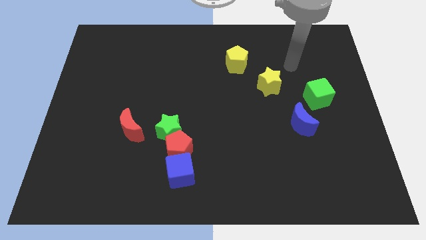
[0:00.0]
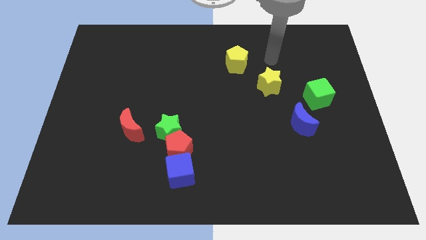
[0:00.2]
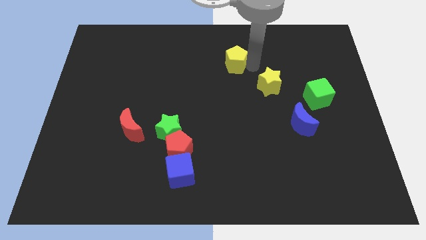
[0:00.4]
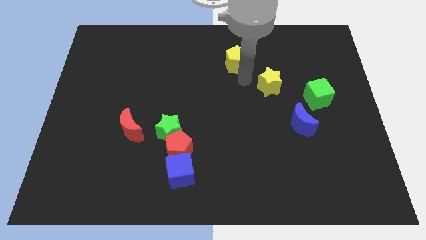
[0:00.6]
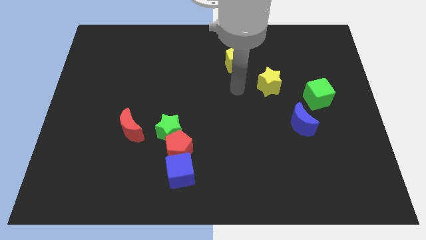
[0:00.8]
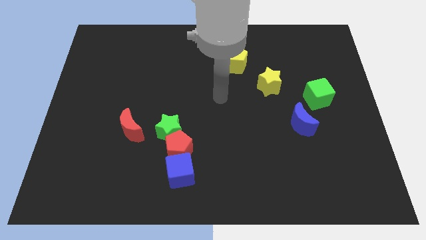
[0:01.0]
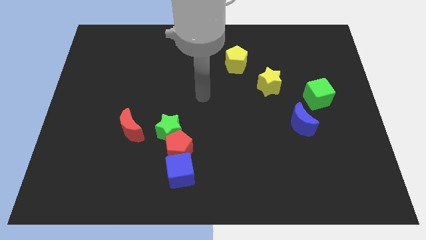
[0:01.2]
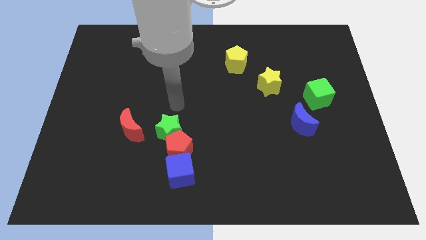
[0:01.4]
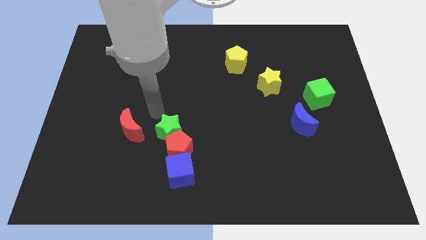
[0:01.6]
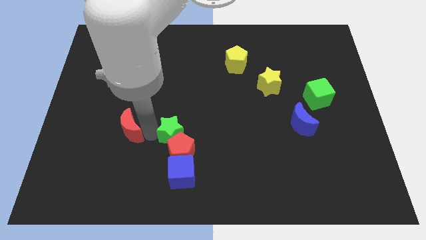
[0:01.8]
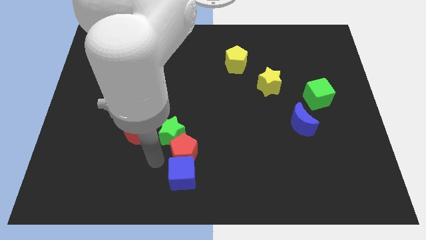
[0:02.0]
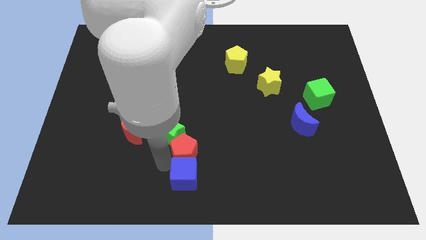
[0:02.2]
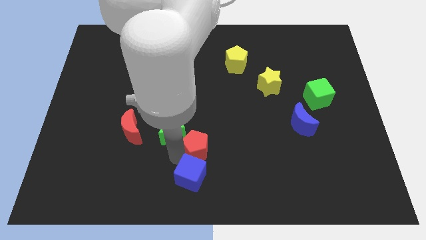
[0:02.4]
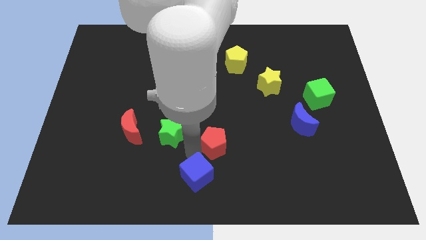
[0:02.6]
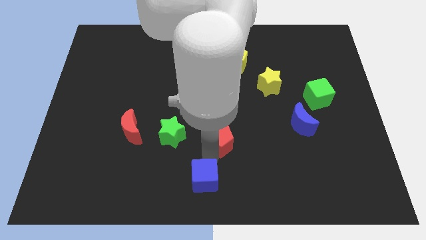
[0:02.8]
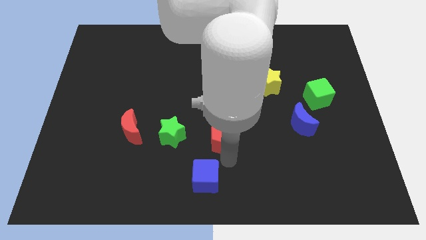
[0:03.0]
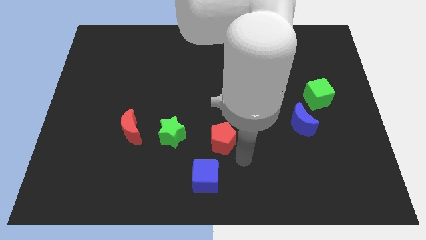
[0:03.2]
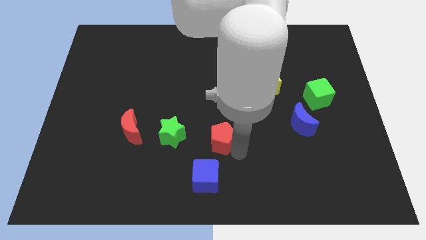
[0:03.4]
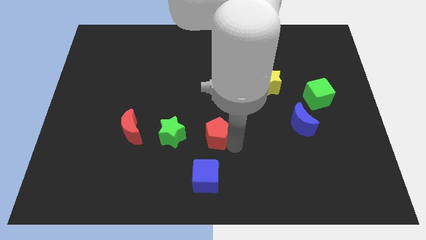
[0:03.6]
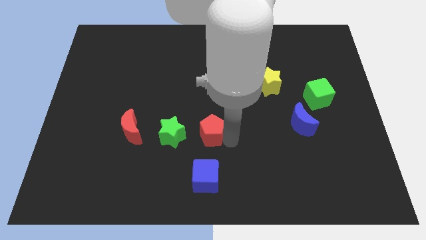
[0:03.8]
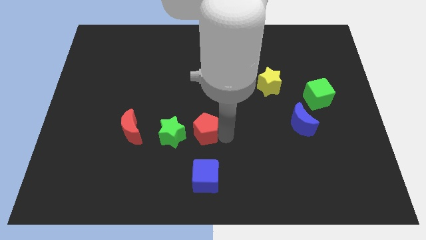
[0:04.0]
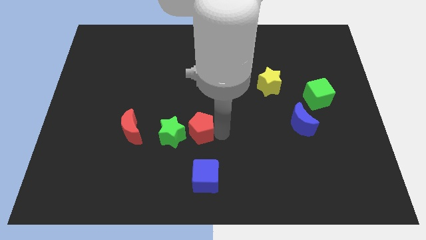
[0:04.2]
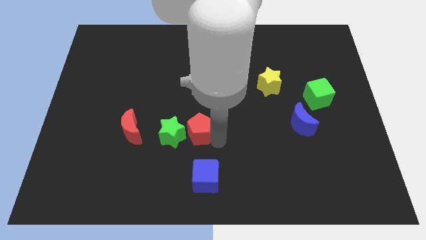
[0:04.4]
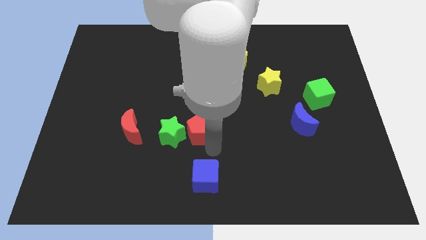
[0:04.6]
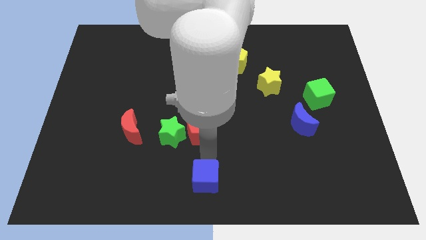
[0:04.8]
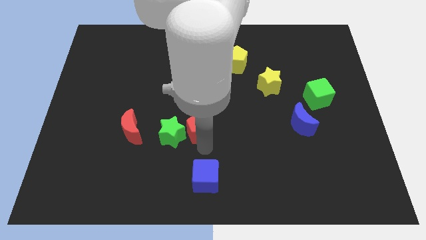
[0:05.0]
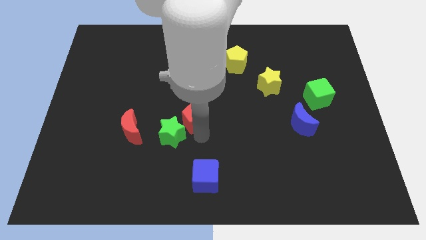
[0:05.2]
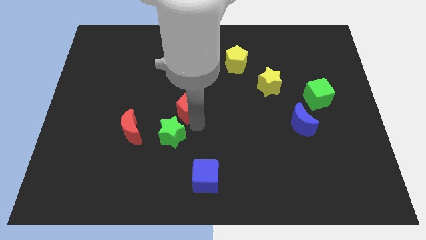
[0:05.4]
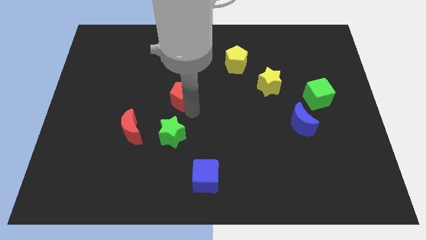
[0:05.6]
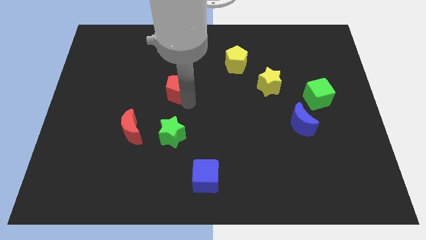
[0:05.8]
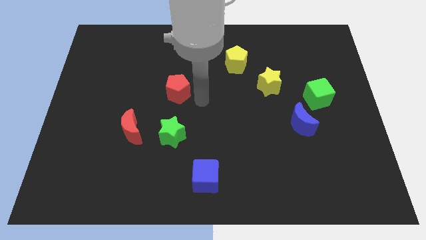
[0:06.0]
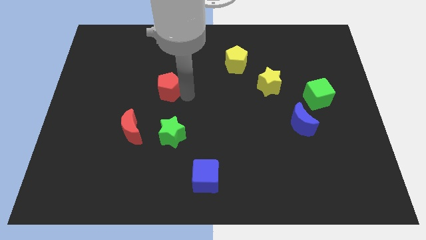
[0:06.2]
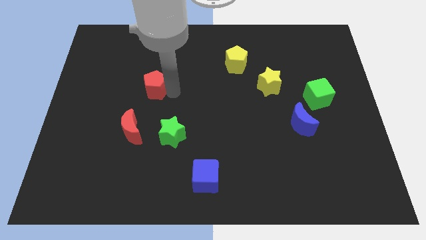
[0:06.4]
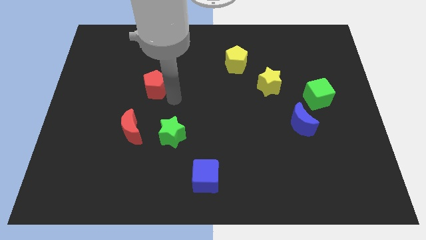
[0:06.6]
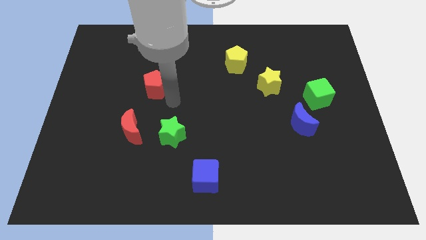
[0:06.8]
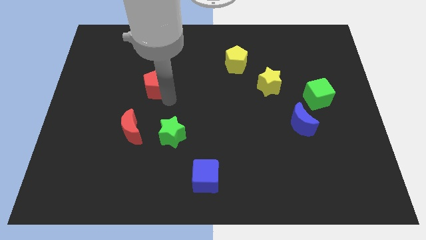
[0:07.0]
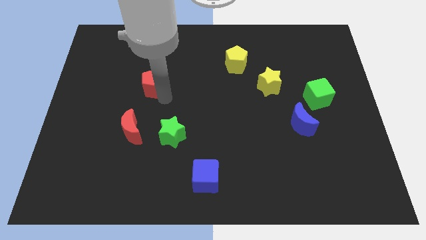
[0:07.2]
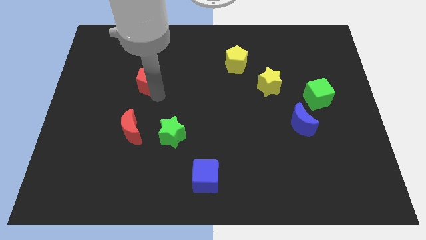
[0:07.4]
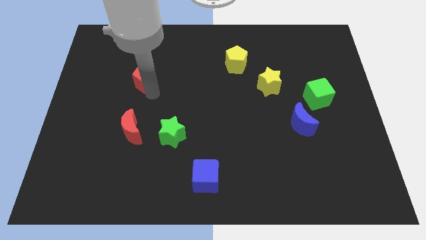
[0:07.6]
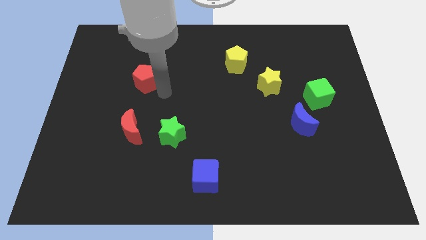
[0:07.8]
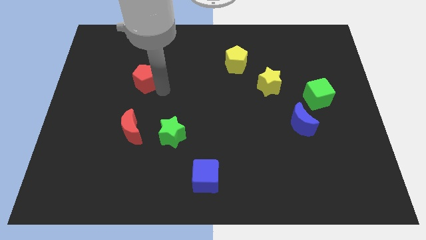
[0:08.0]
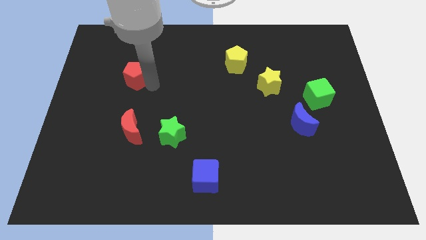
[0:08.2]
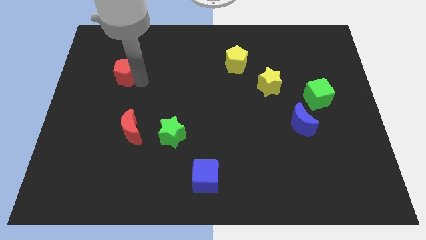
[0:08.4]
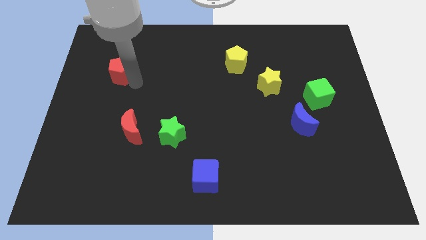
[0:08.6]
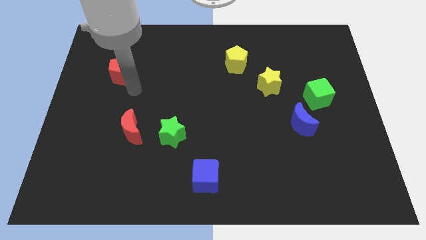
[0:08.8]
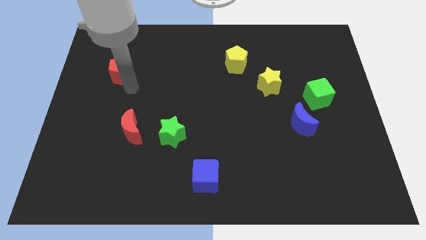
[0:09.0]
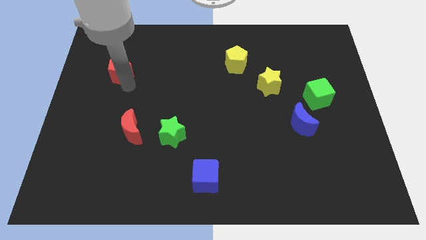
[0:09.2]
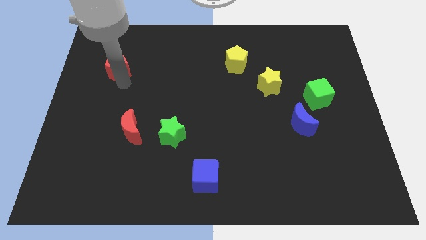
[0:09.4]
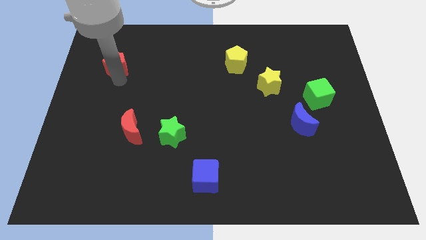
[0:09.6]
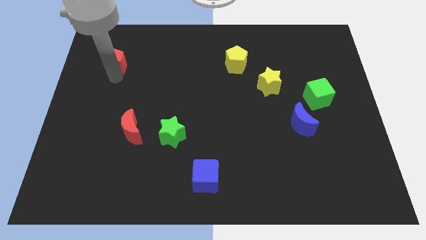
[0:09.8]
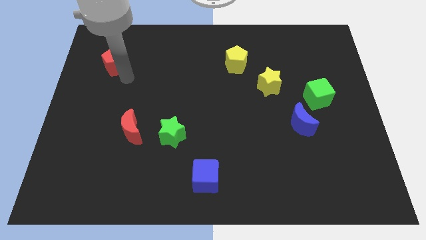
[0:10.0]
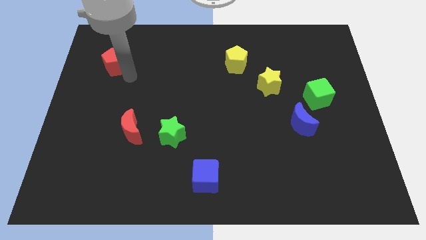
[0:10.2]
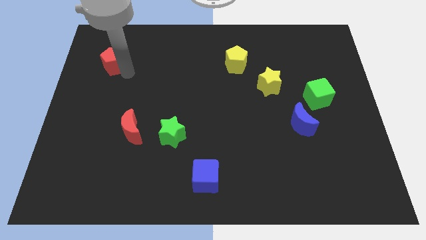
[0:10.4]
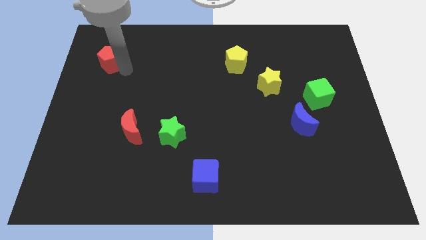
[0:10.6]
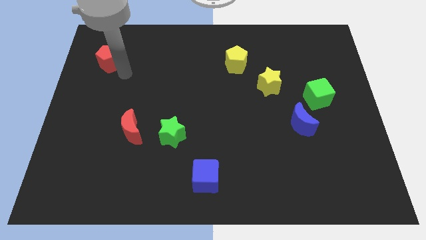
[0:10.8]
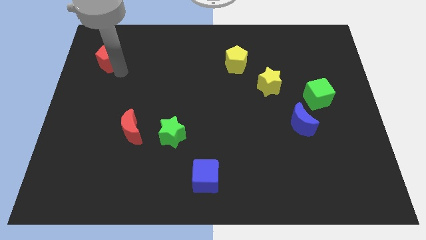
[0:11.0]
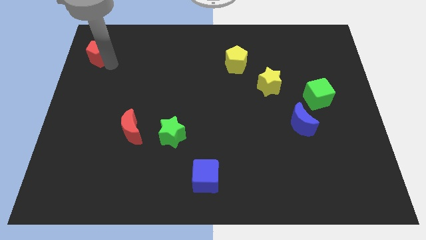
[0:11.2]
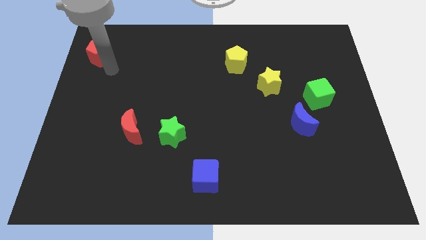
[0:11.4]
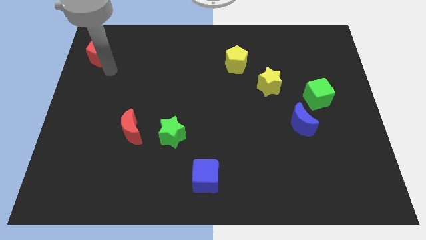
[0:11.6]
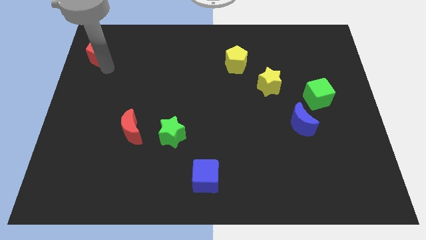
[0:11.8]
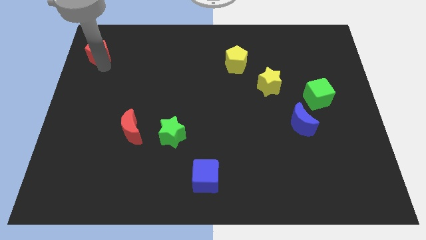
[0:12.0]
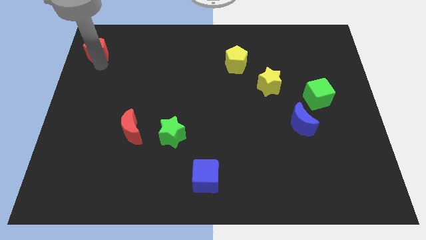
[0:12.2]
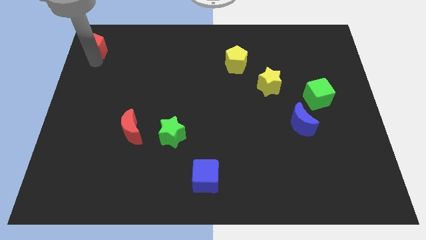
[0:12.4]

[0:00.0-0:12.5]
put the red pentagon to the top left corner
